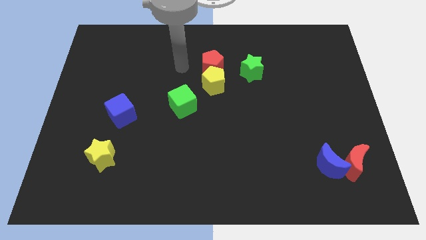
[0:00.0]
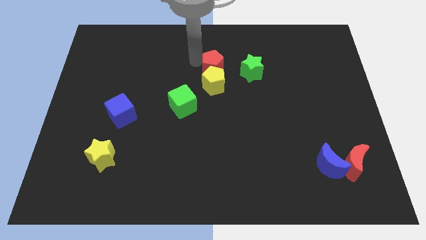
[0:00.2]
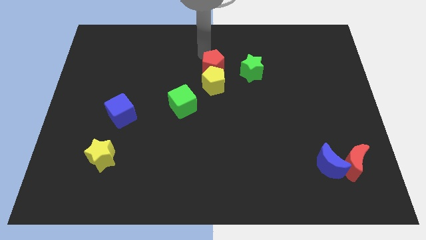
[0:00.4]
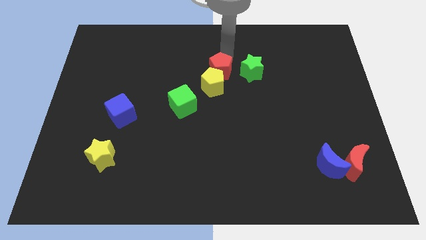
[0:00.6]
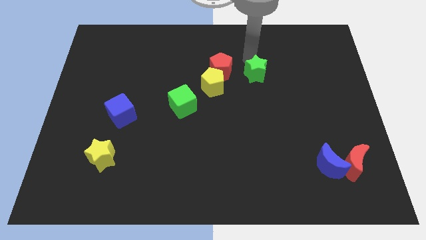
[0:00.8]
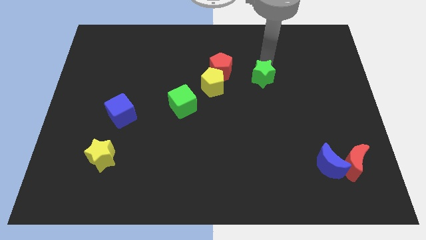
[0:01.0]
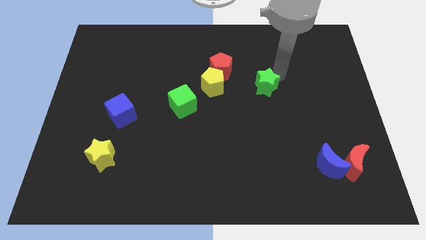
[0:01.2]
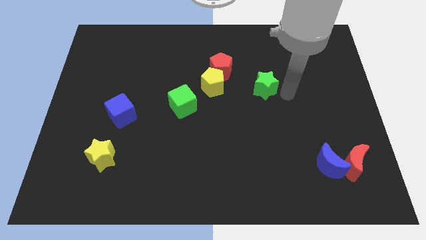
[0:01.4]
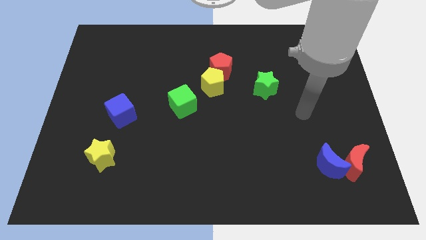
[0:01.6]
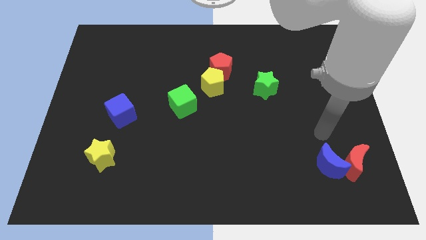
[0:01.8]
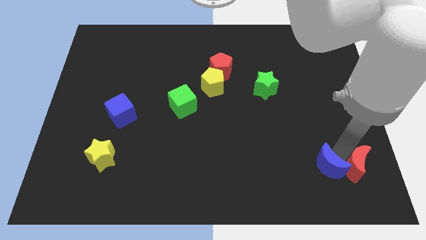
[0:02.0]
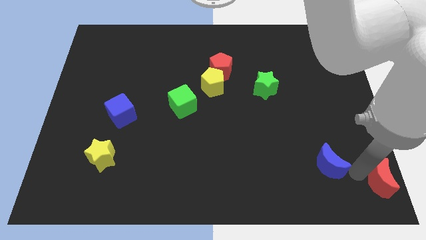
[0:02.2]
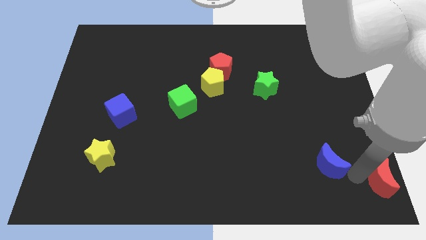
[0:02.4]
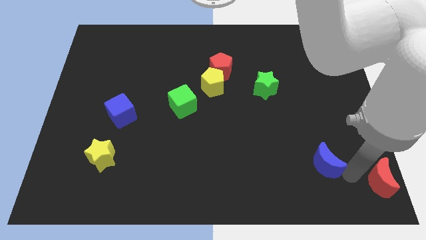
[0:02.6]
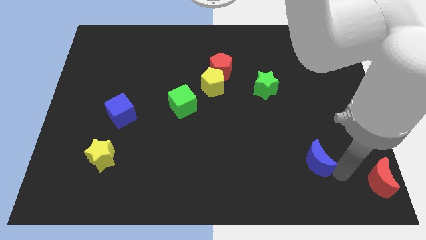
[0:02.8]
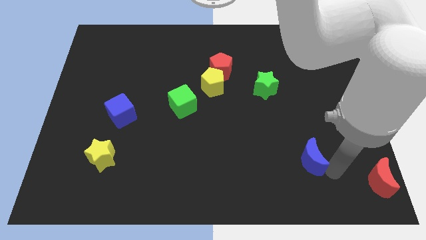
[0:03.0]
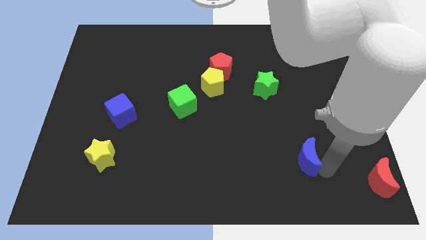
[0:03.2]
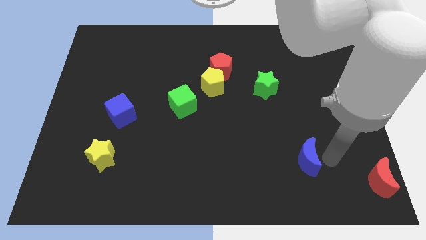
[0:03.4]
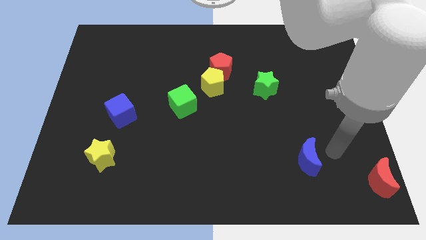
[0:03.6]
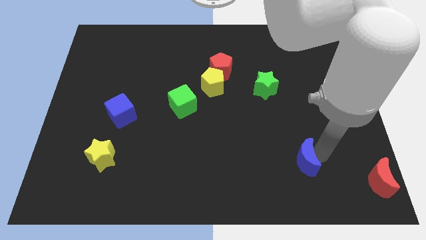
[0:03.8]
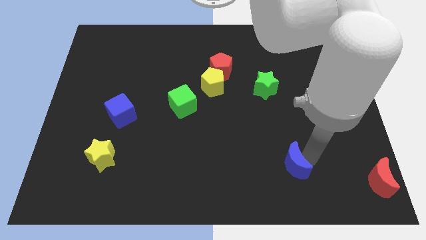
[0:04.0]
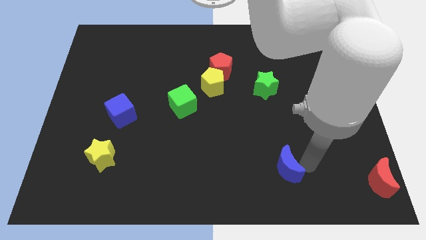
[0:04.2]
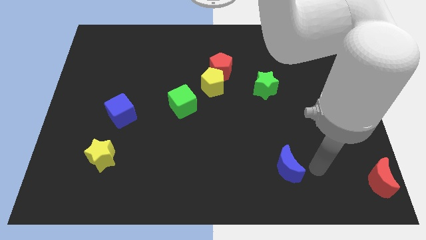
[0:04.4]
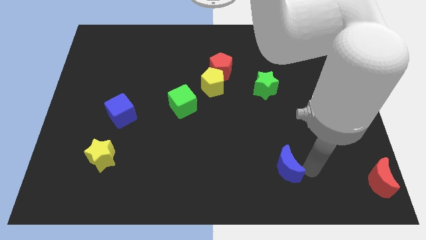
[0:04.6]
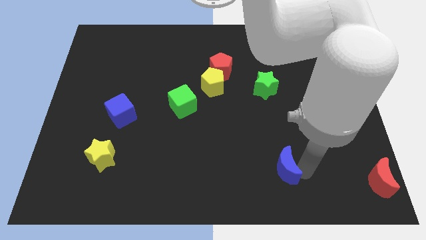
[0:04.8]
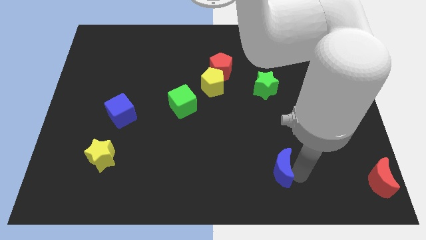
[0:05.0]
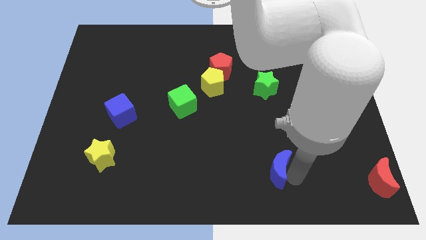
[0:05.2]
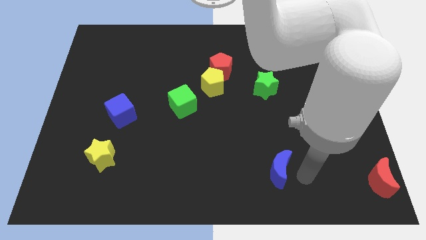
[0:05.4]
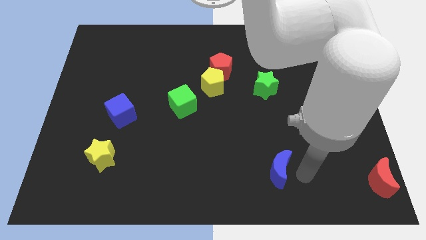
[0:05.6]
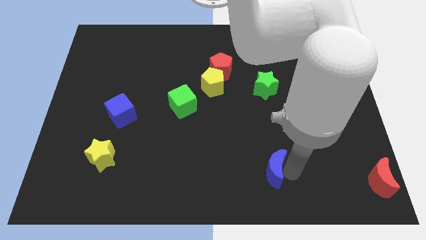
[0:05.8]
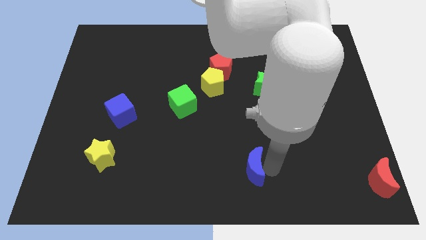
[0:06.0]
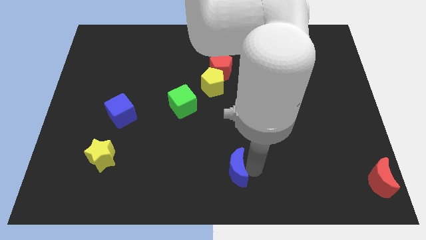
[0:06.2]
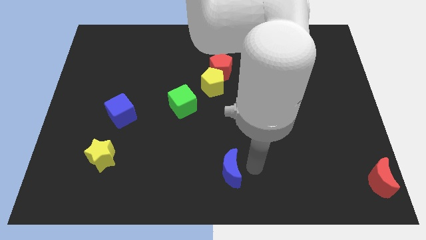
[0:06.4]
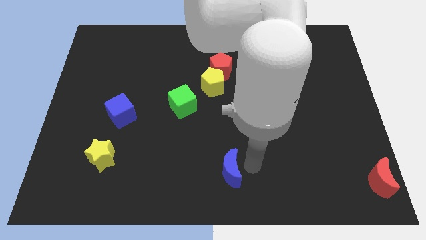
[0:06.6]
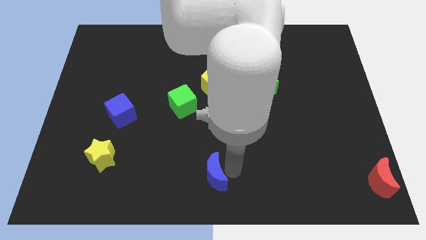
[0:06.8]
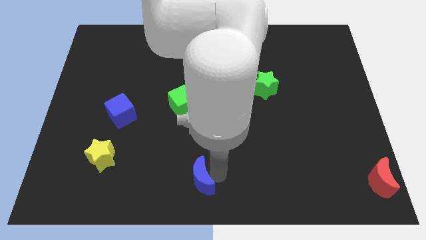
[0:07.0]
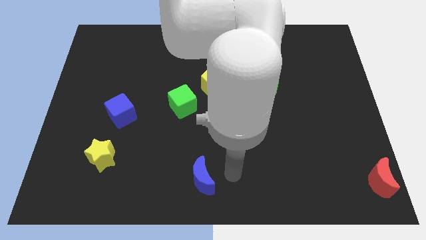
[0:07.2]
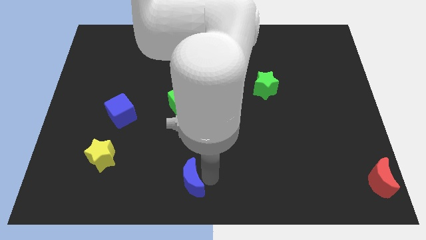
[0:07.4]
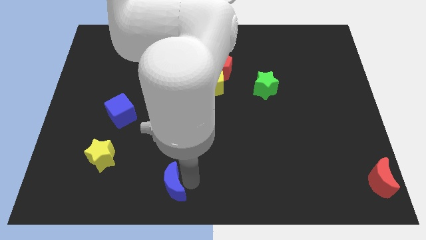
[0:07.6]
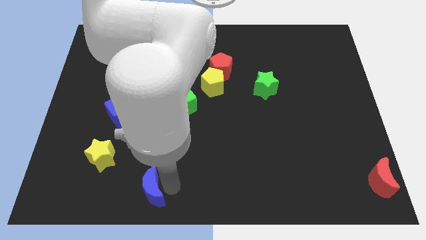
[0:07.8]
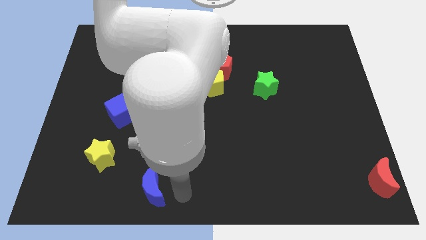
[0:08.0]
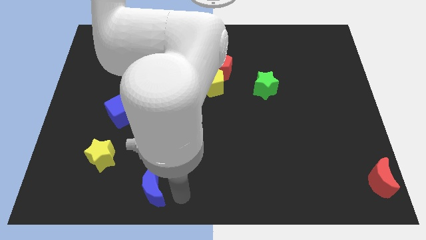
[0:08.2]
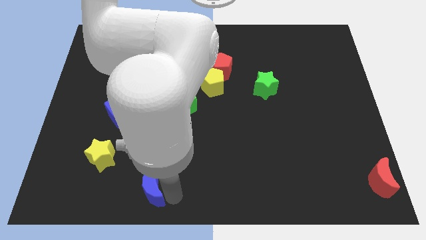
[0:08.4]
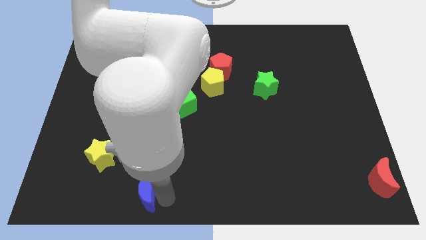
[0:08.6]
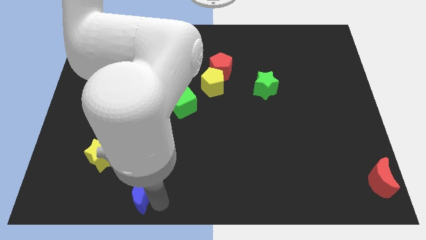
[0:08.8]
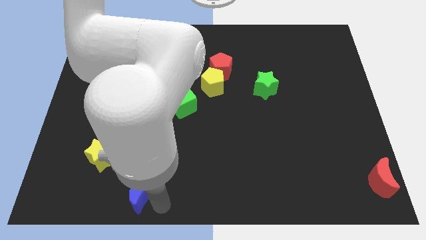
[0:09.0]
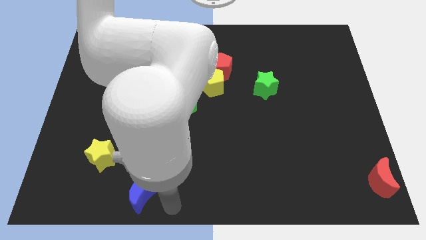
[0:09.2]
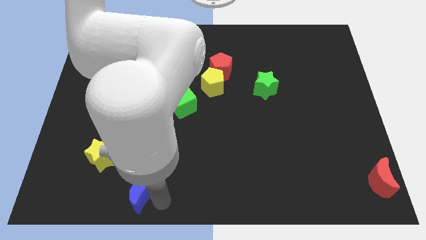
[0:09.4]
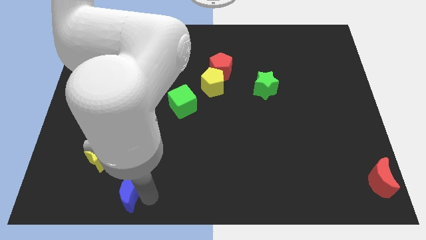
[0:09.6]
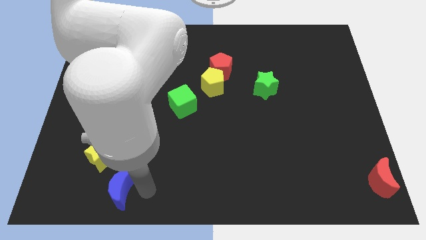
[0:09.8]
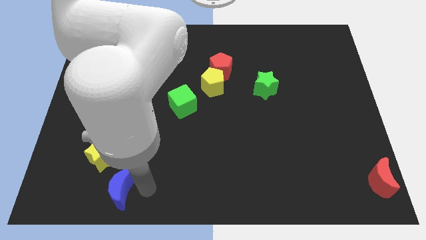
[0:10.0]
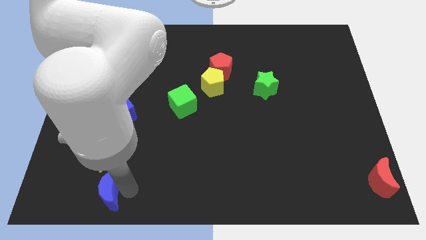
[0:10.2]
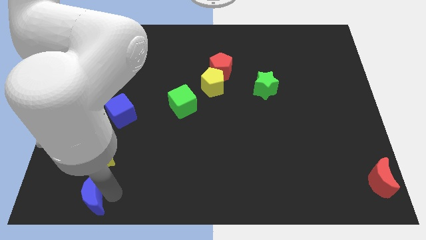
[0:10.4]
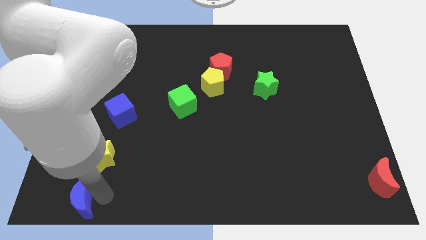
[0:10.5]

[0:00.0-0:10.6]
put the blue moon to the bottom left

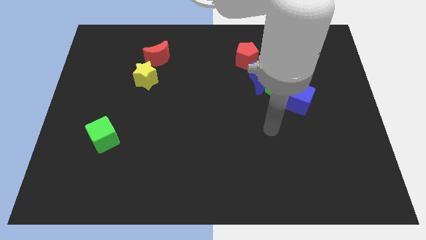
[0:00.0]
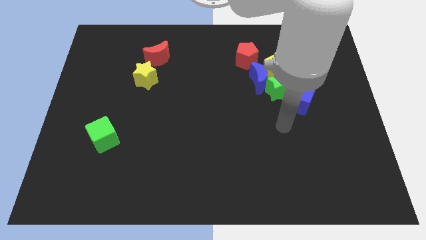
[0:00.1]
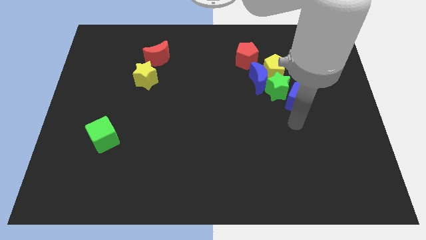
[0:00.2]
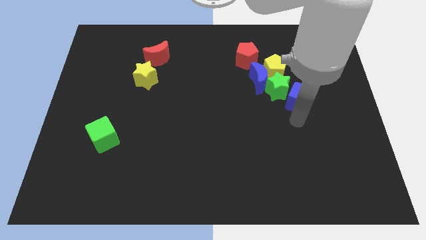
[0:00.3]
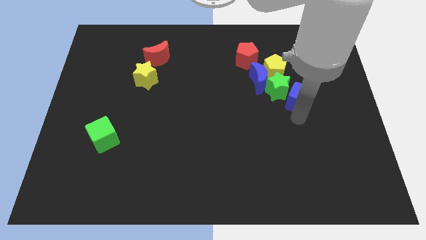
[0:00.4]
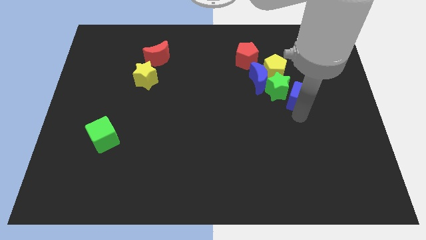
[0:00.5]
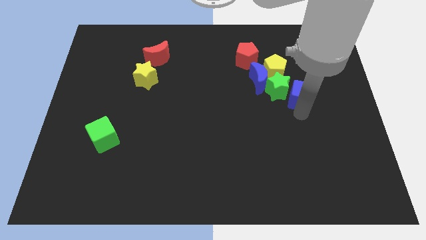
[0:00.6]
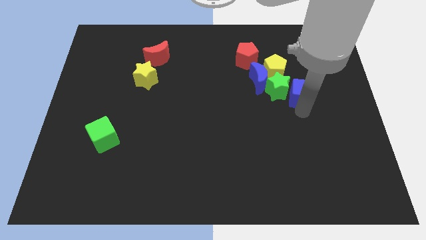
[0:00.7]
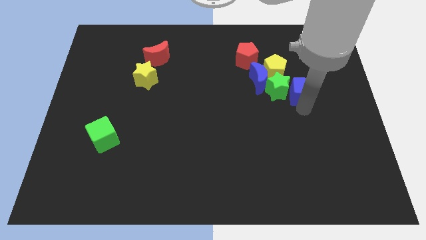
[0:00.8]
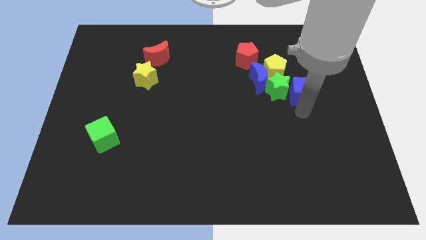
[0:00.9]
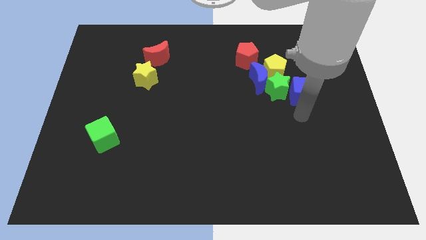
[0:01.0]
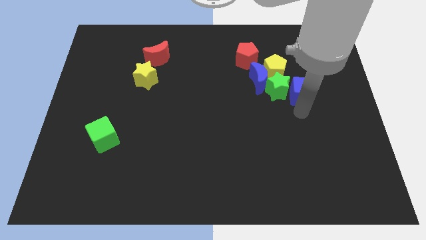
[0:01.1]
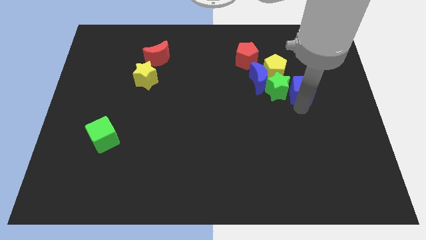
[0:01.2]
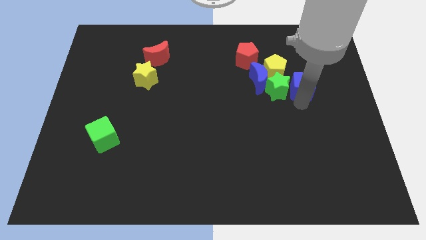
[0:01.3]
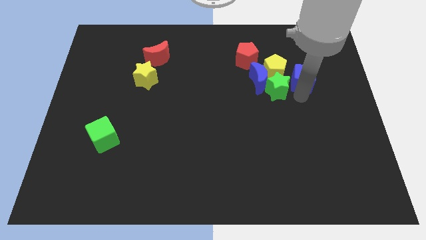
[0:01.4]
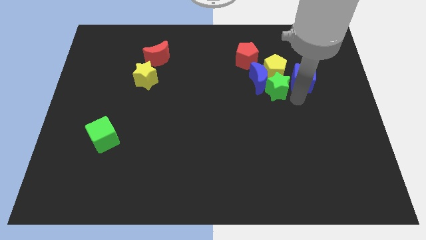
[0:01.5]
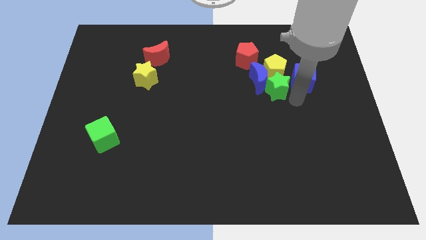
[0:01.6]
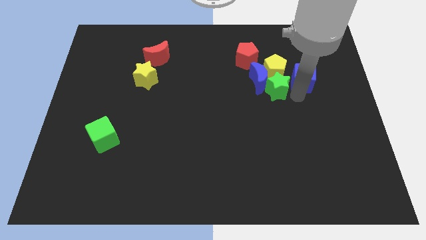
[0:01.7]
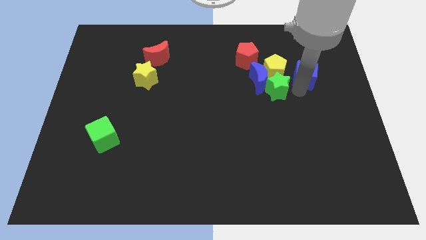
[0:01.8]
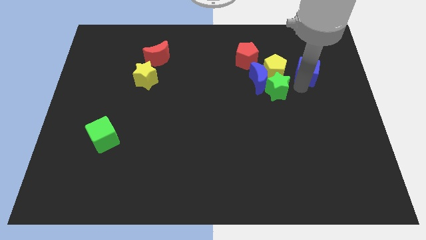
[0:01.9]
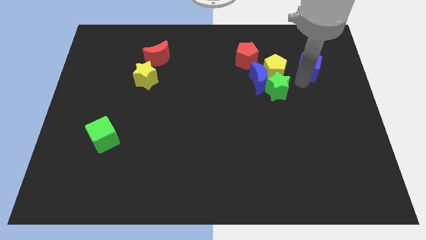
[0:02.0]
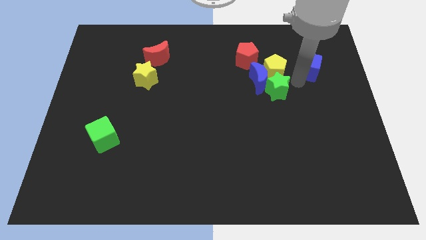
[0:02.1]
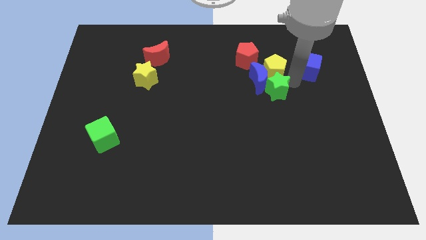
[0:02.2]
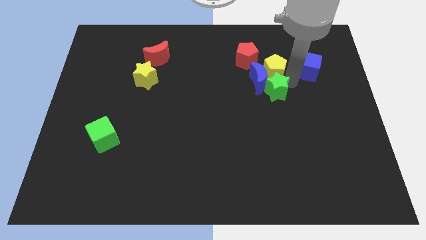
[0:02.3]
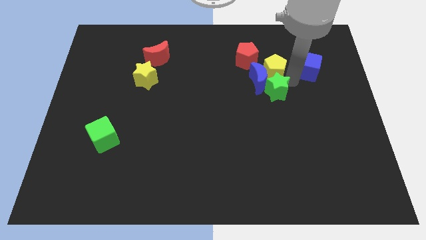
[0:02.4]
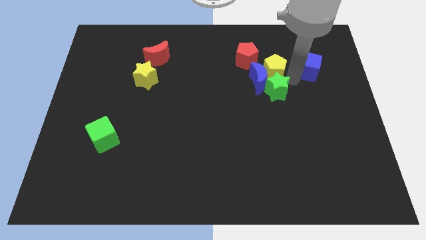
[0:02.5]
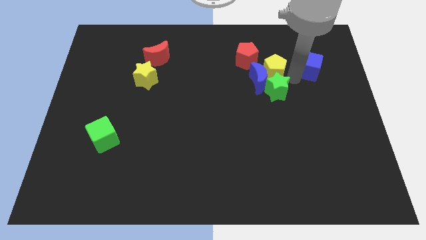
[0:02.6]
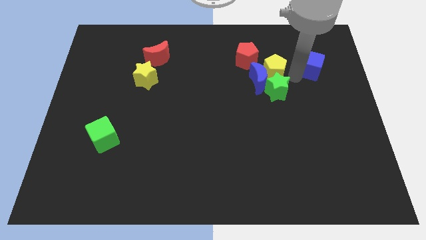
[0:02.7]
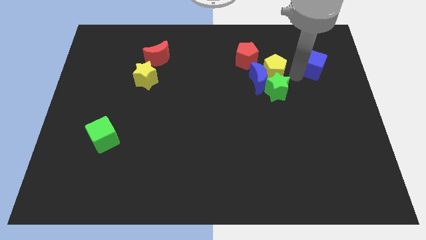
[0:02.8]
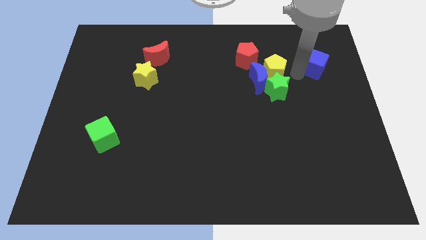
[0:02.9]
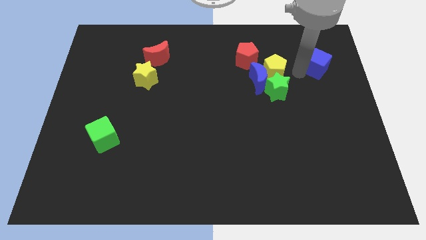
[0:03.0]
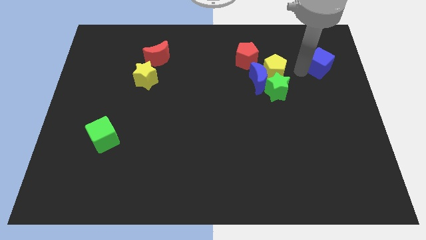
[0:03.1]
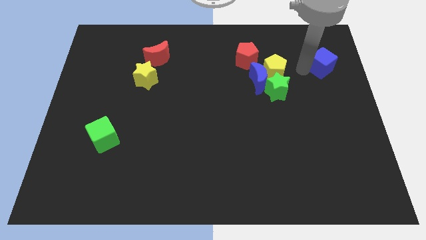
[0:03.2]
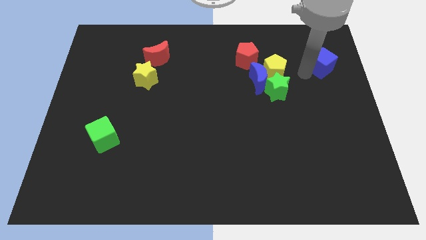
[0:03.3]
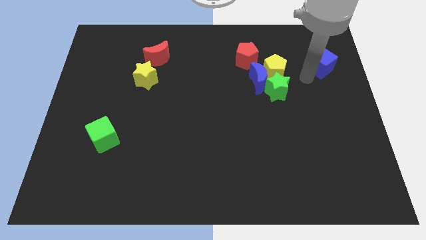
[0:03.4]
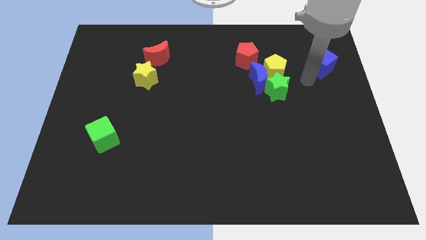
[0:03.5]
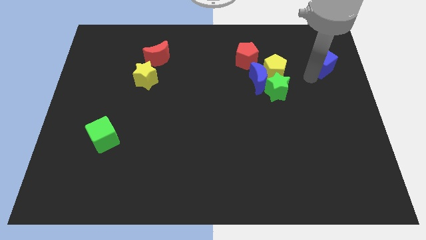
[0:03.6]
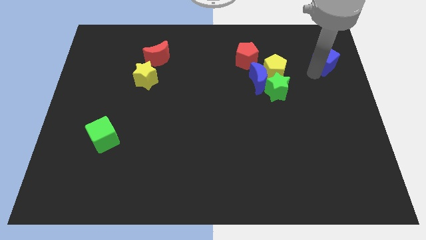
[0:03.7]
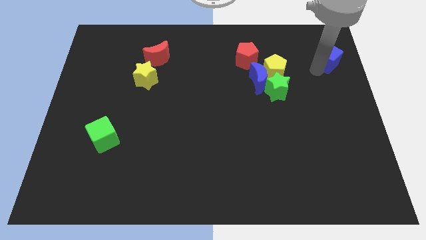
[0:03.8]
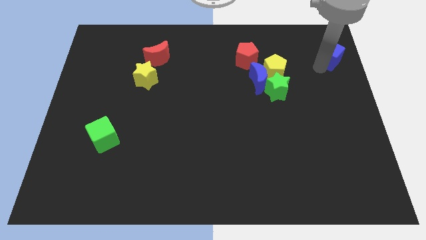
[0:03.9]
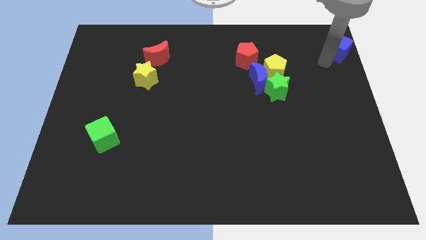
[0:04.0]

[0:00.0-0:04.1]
push the blue cube to the top right
